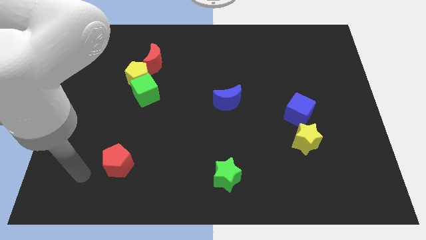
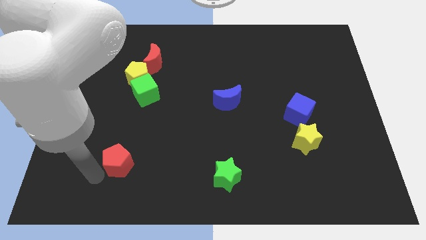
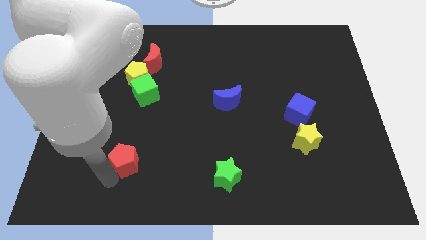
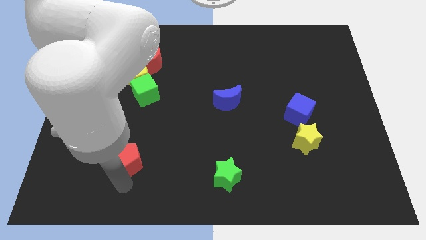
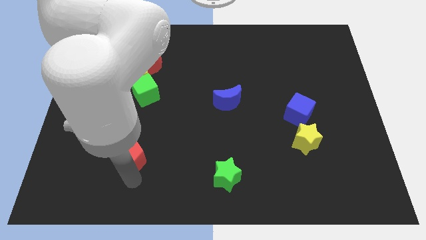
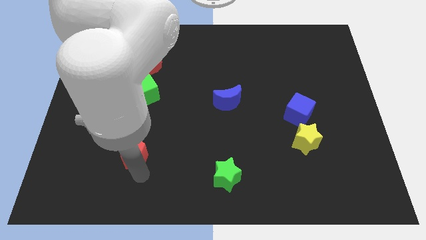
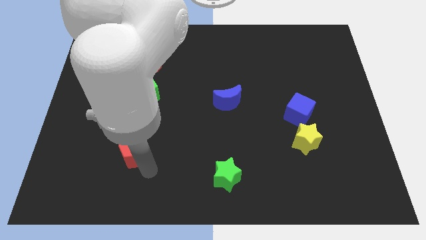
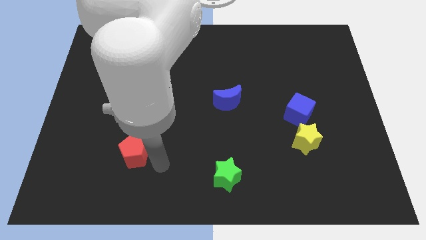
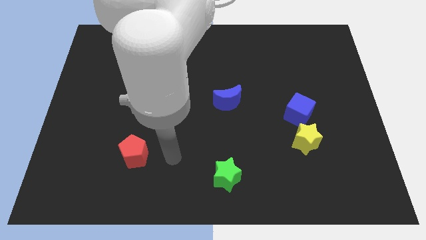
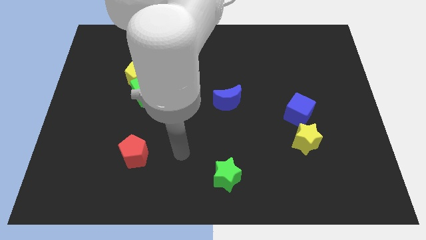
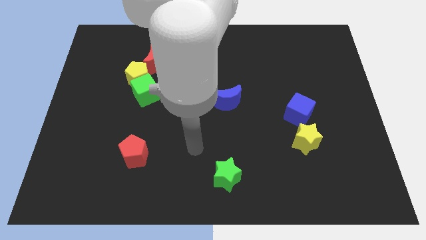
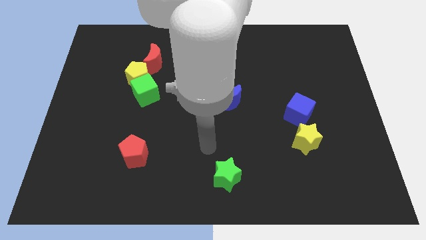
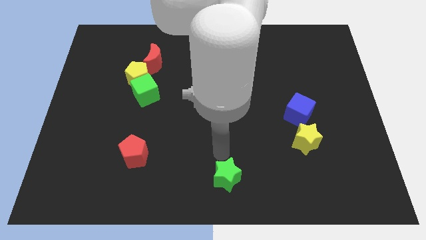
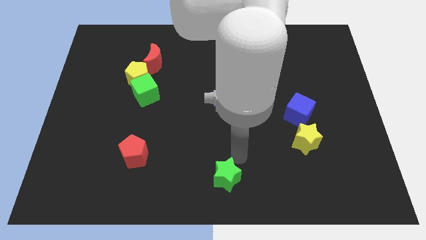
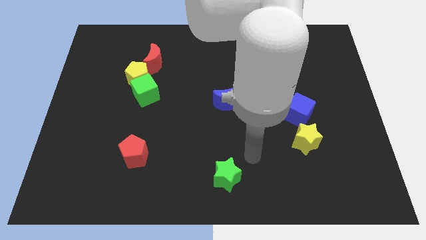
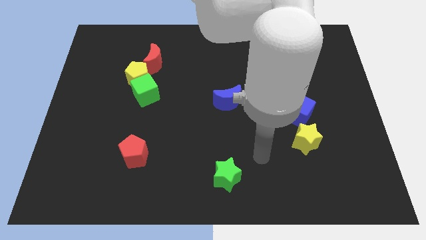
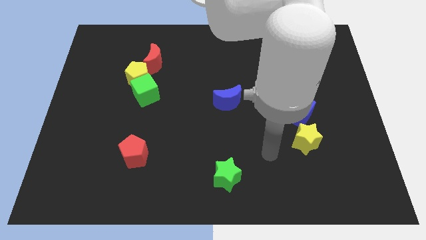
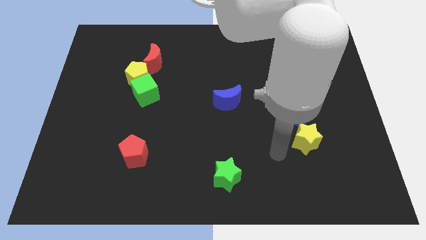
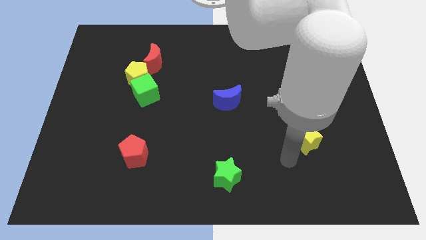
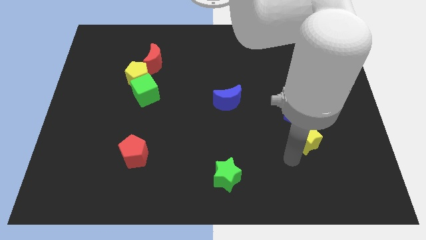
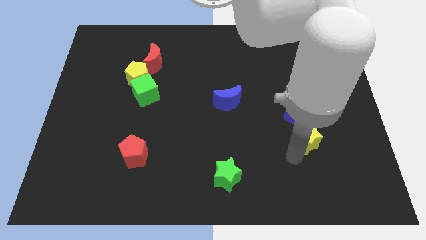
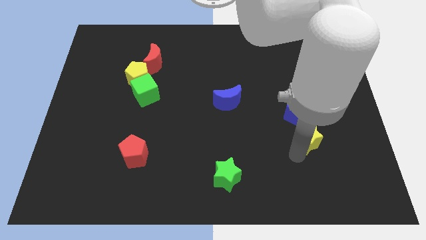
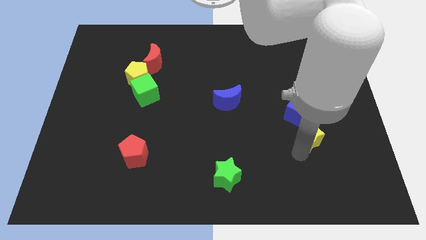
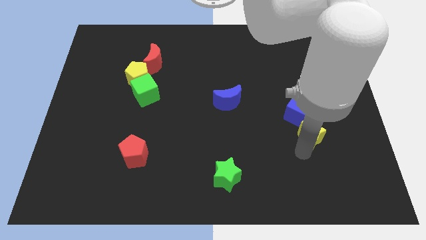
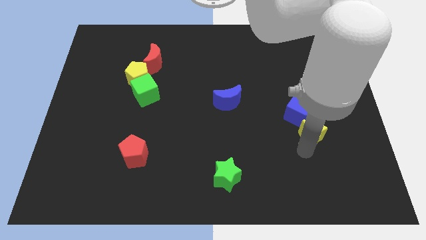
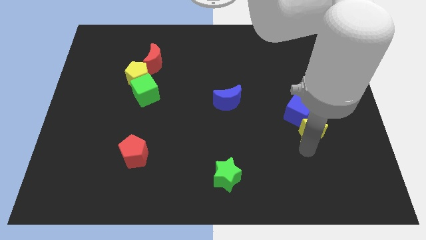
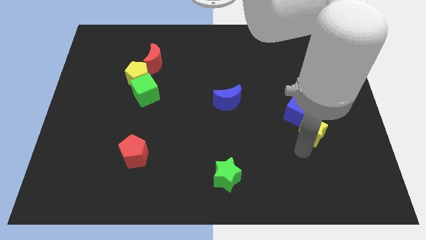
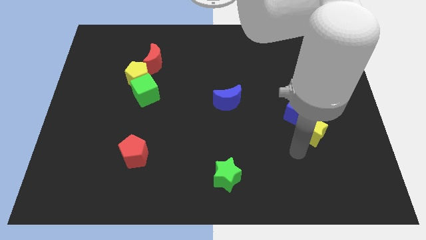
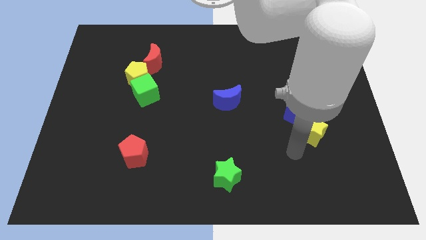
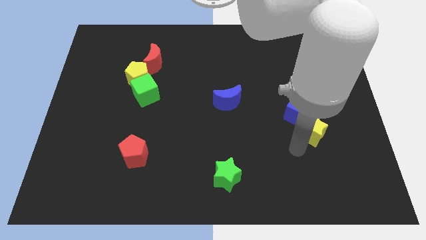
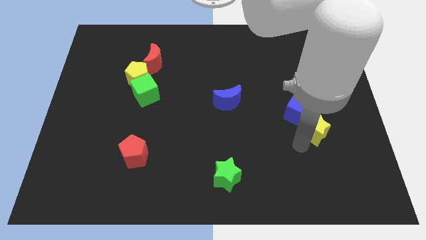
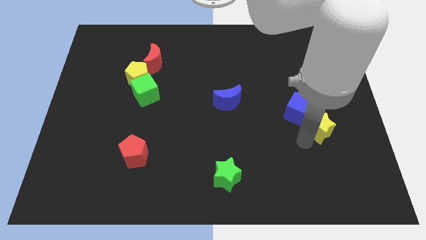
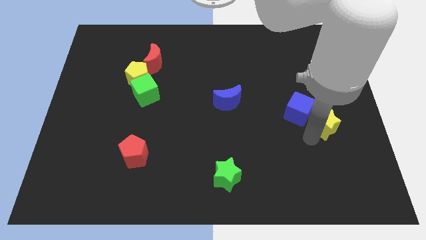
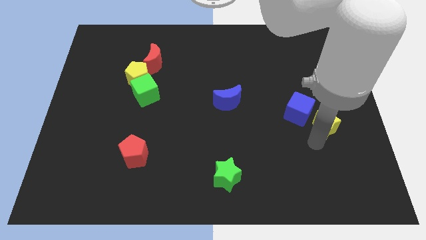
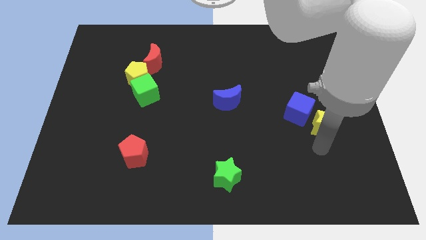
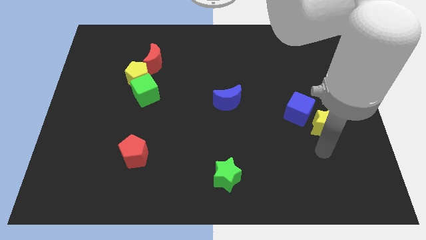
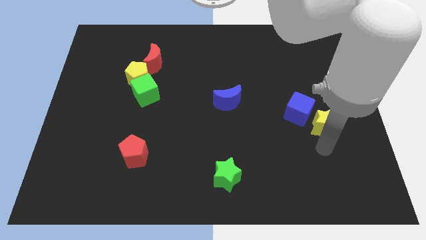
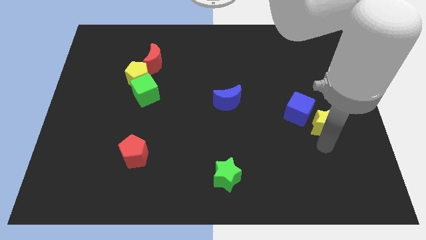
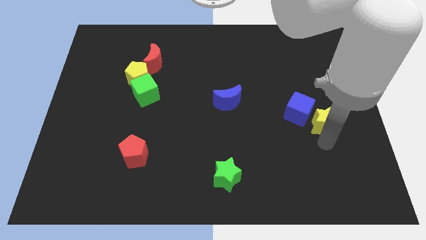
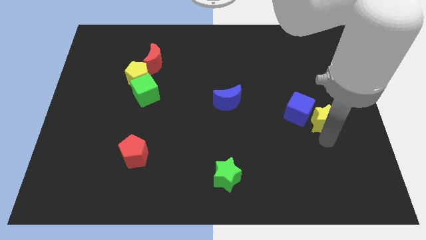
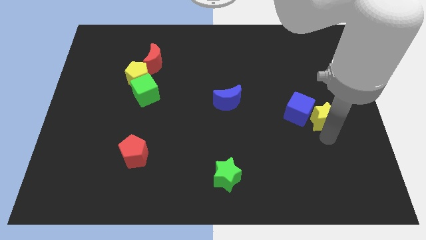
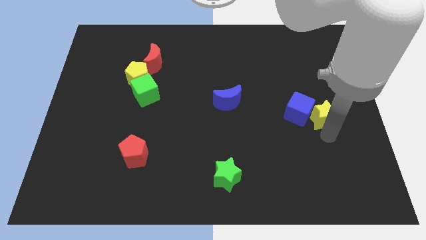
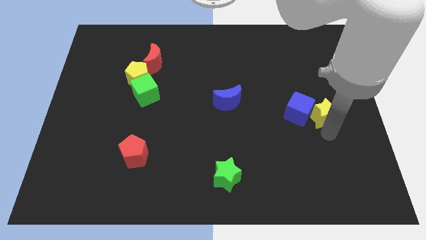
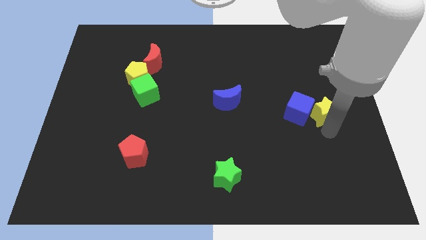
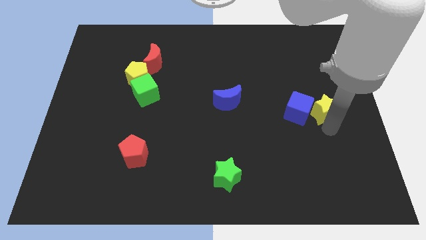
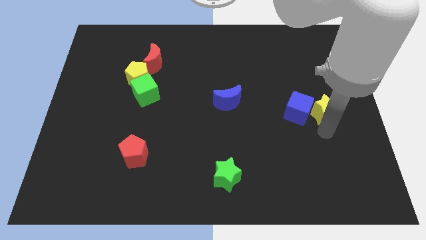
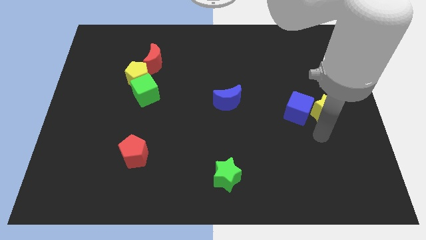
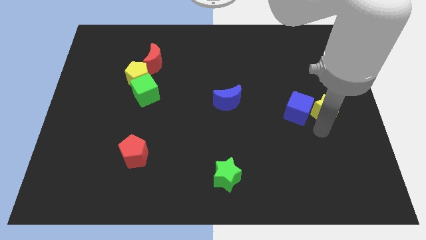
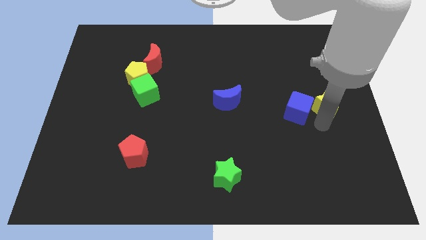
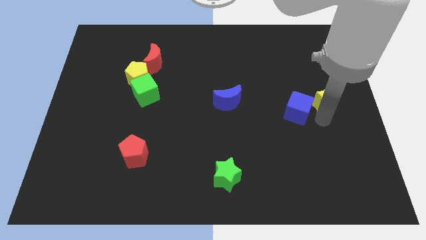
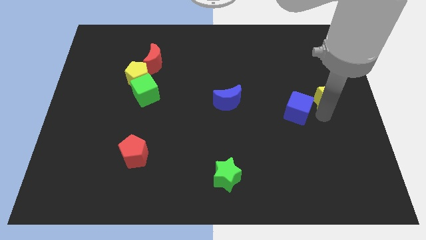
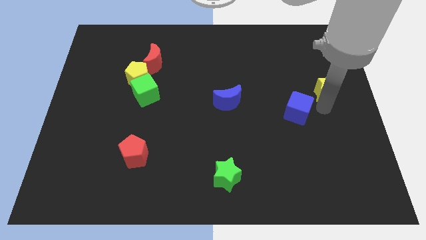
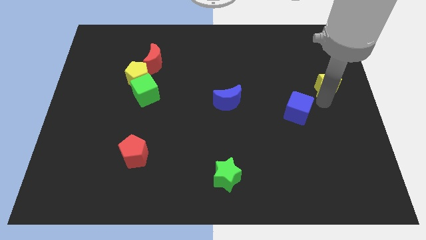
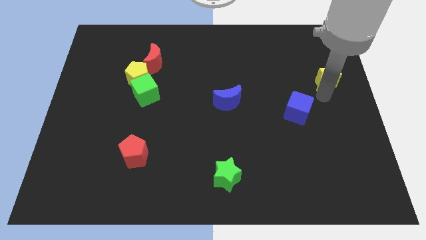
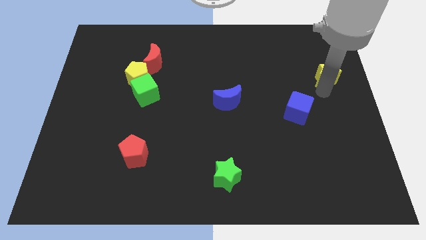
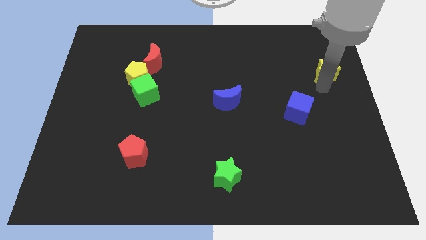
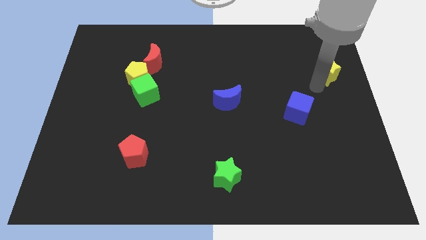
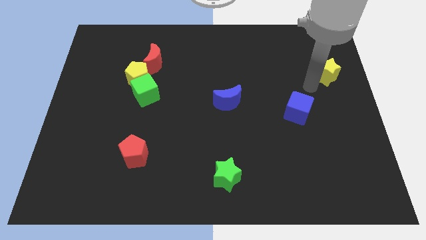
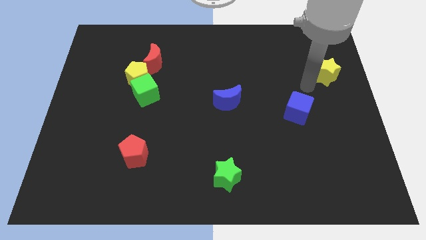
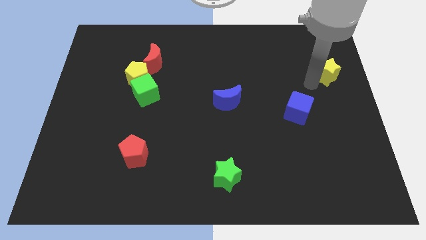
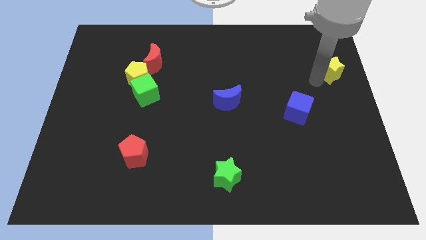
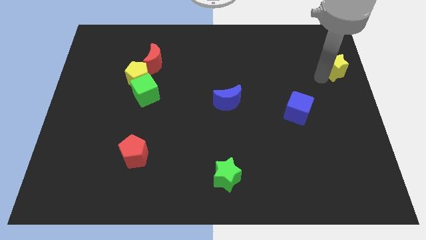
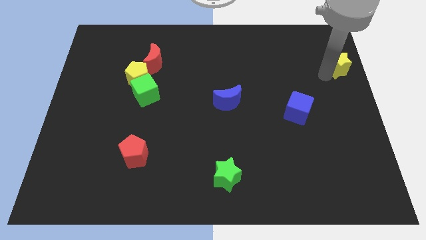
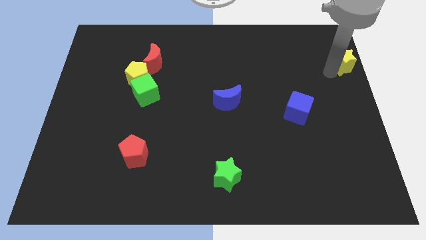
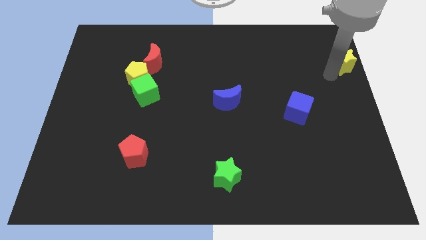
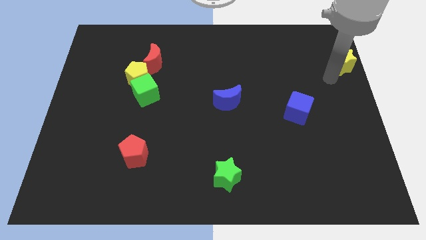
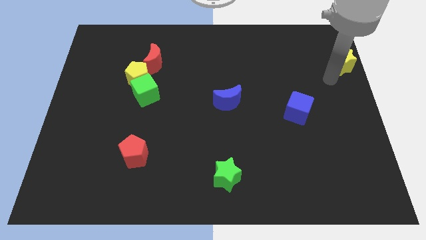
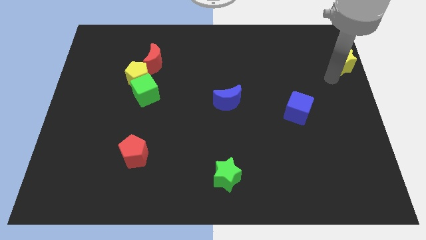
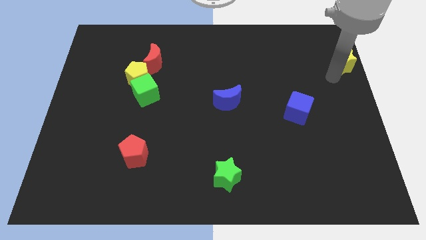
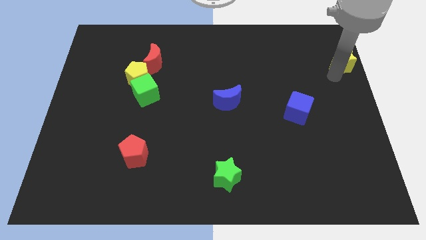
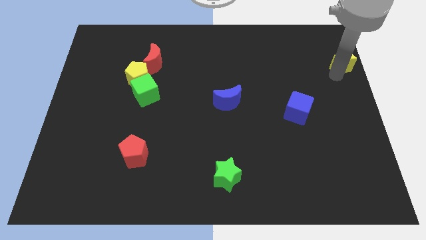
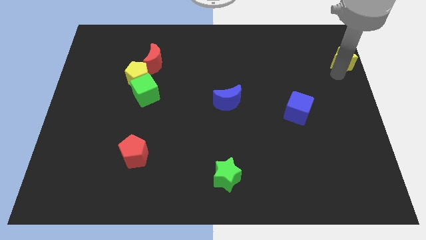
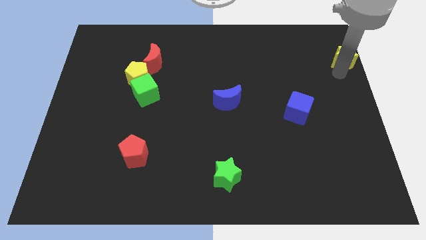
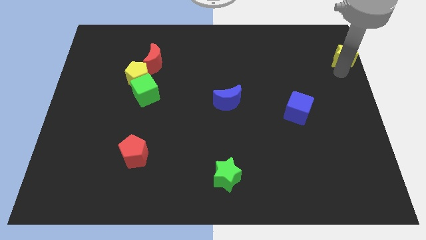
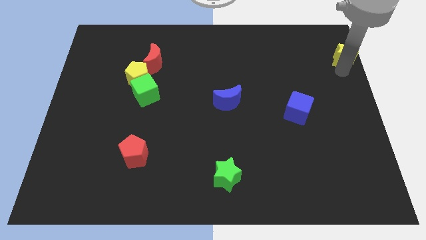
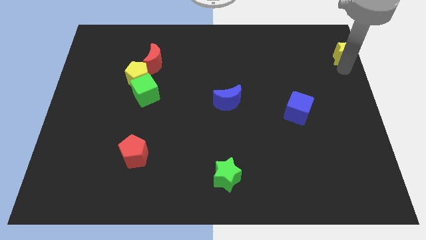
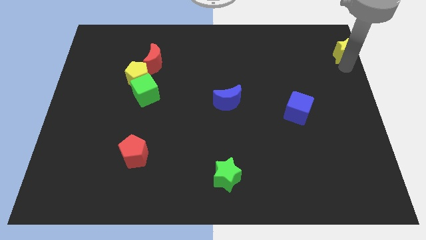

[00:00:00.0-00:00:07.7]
slide the yellow star to the upper right corner

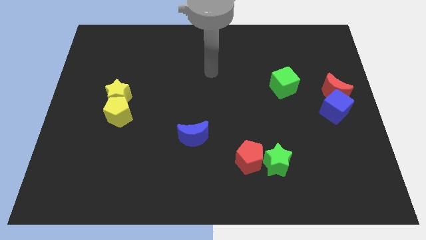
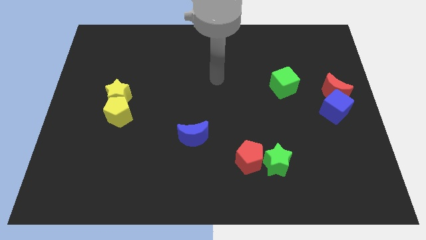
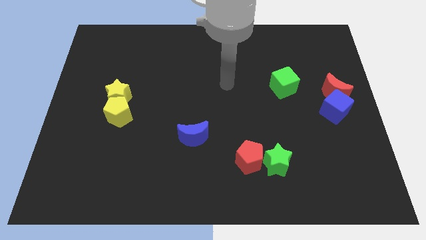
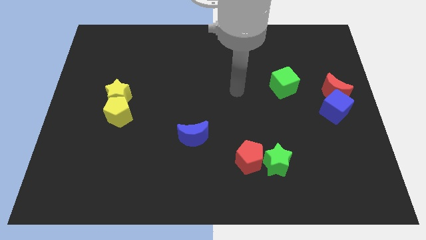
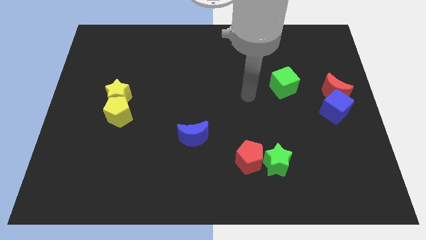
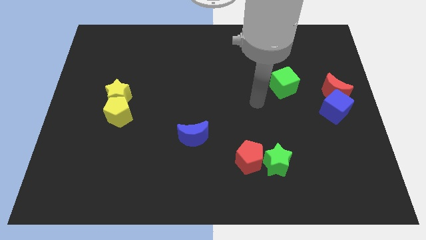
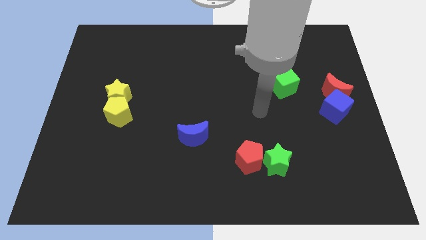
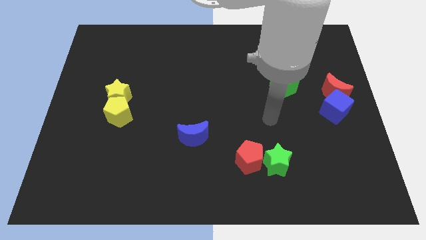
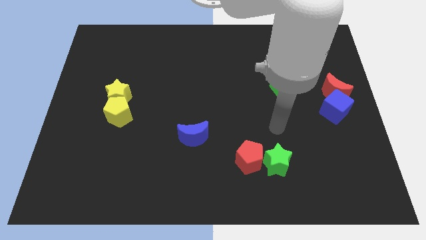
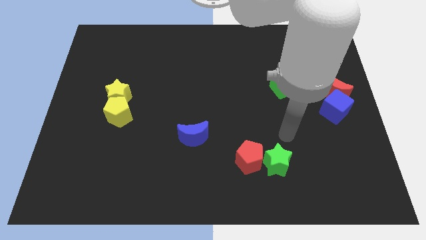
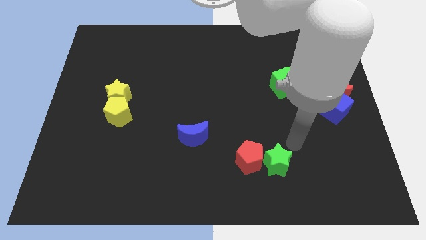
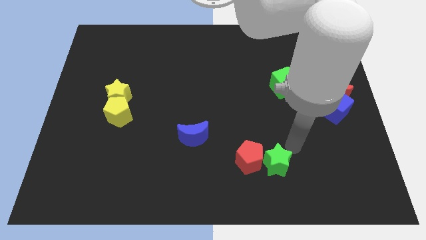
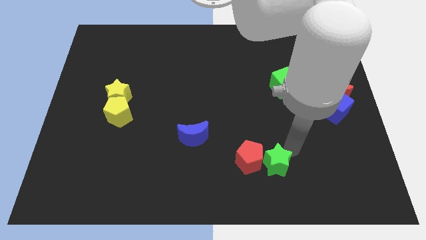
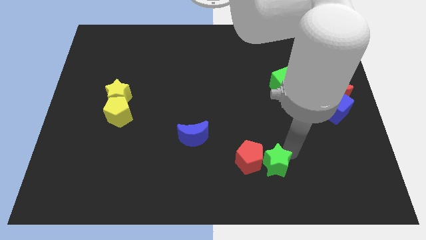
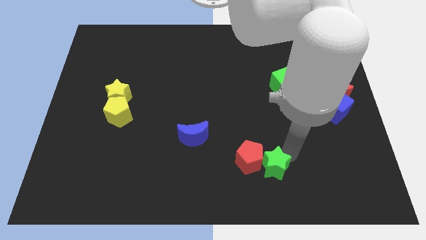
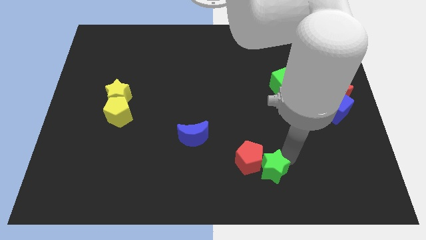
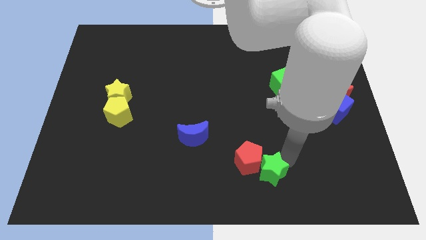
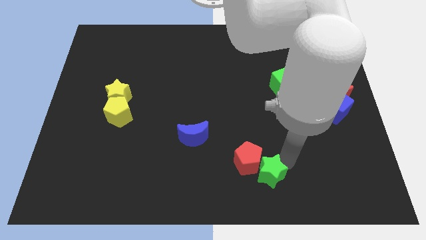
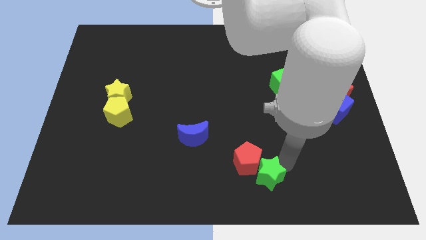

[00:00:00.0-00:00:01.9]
put the green star to the bottom
